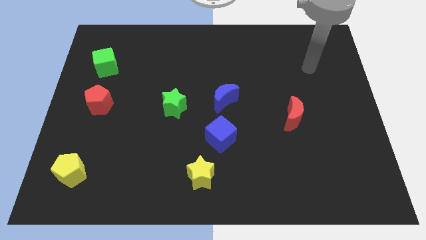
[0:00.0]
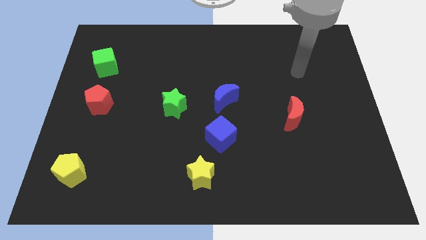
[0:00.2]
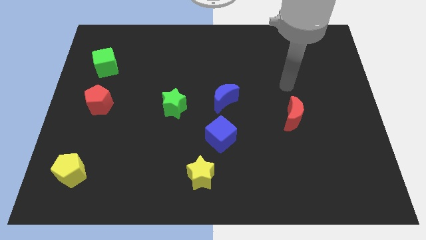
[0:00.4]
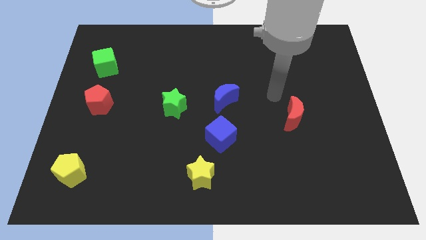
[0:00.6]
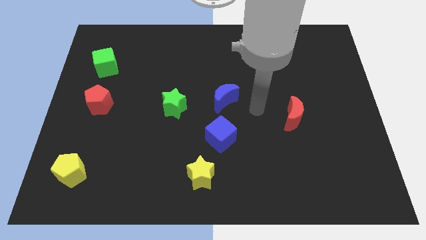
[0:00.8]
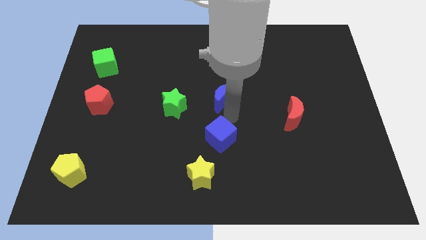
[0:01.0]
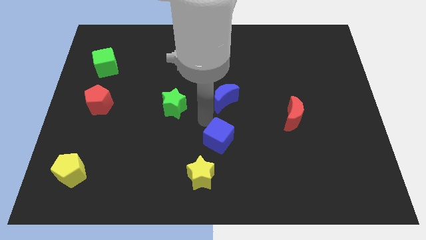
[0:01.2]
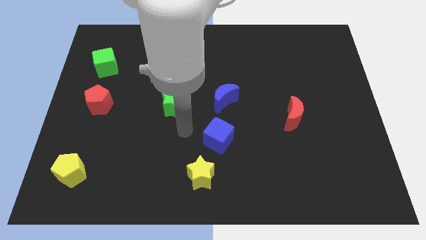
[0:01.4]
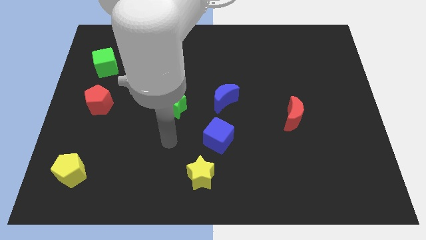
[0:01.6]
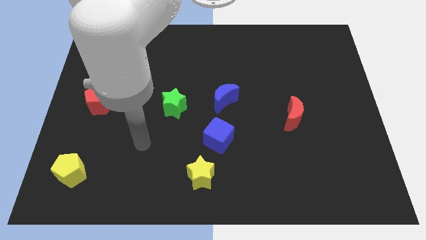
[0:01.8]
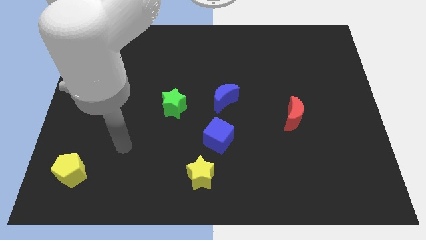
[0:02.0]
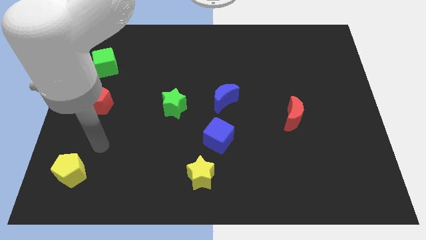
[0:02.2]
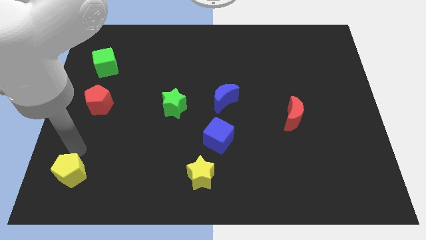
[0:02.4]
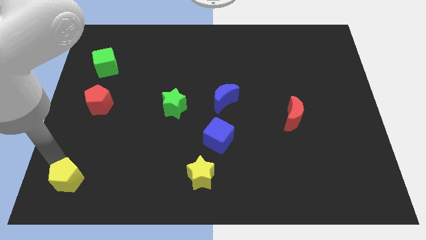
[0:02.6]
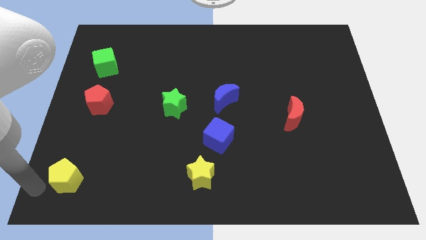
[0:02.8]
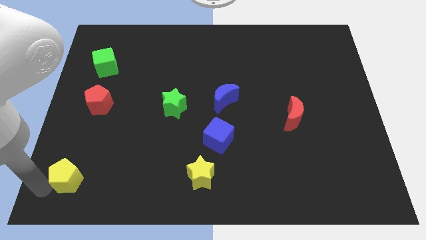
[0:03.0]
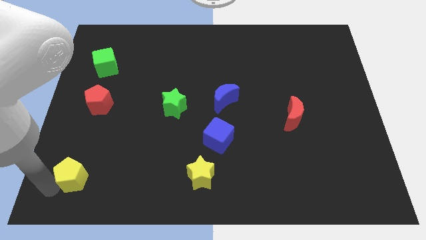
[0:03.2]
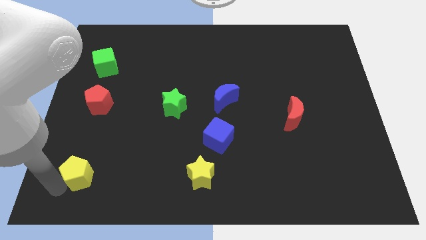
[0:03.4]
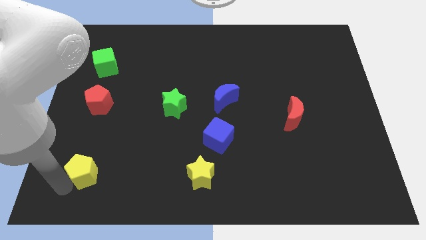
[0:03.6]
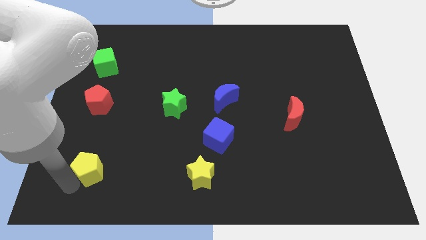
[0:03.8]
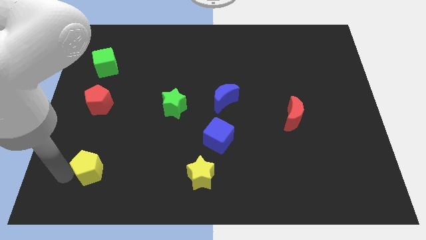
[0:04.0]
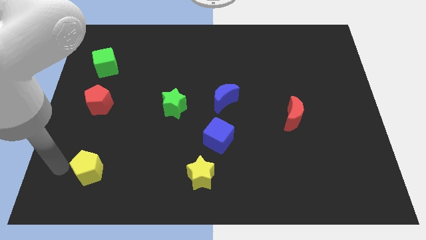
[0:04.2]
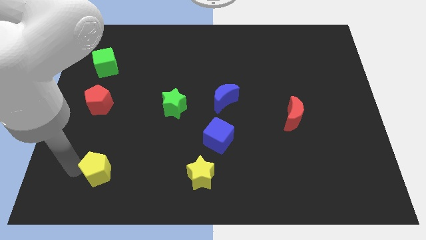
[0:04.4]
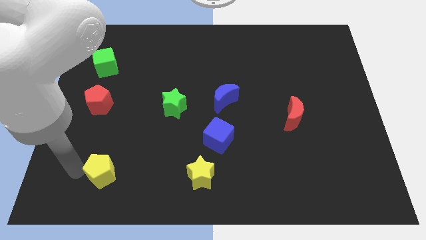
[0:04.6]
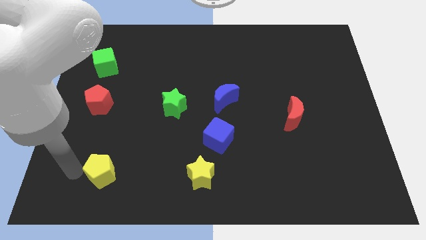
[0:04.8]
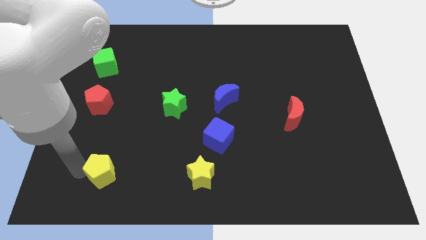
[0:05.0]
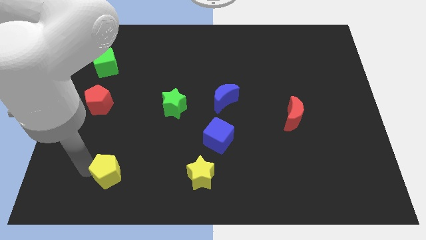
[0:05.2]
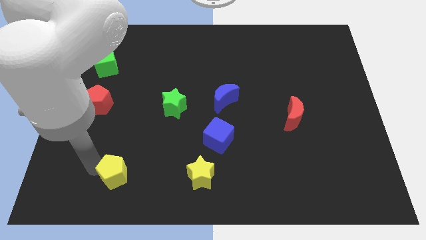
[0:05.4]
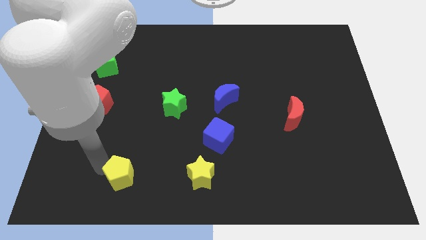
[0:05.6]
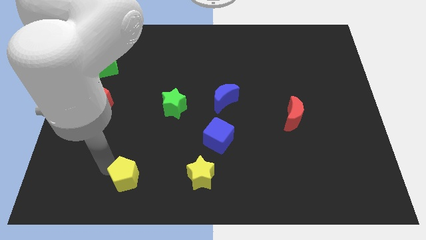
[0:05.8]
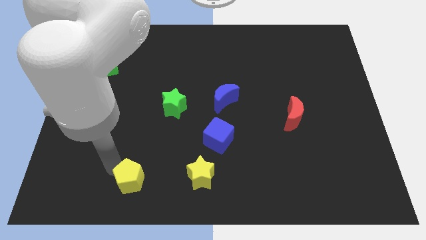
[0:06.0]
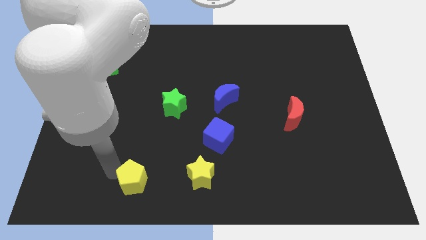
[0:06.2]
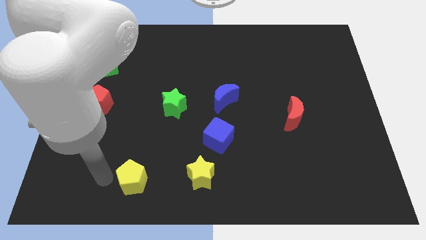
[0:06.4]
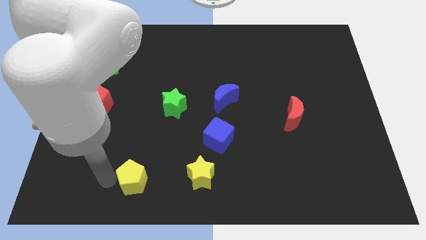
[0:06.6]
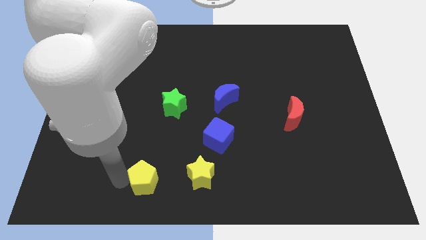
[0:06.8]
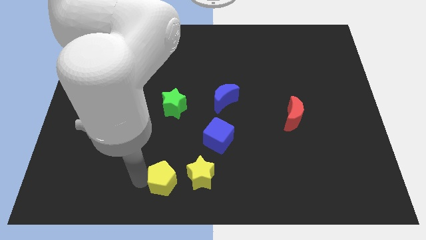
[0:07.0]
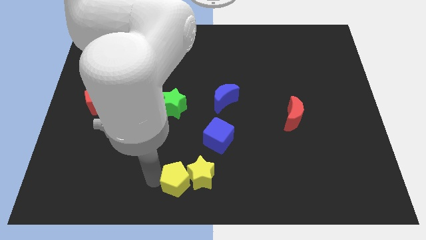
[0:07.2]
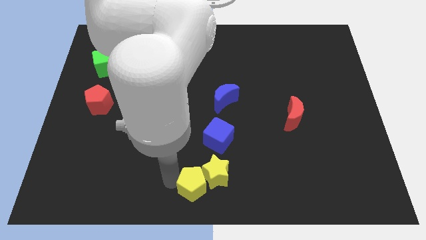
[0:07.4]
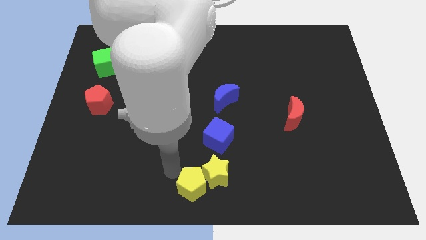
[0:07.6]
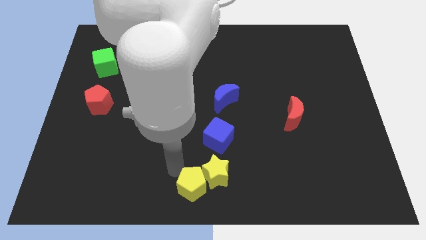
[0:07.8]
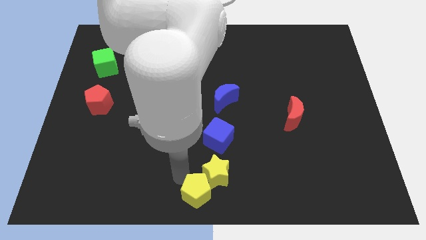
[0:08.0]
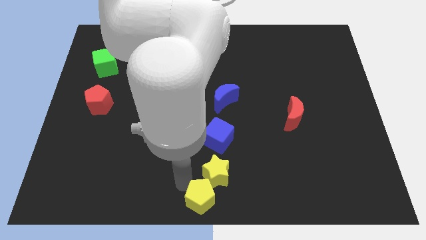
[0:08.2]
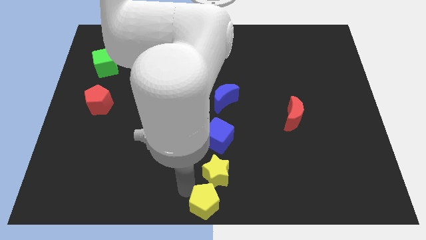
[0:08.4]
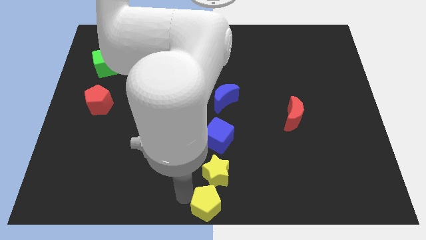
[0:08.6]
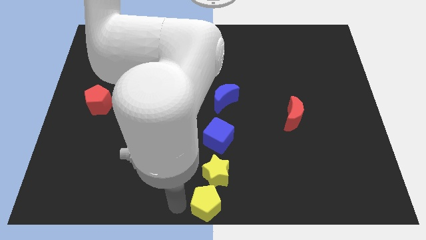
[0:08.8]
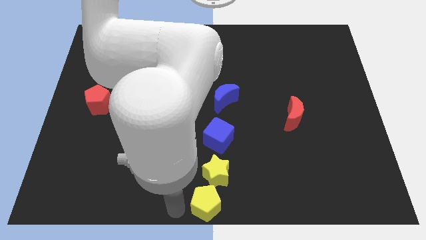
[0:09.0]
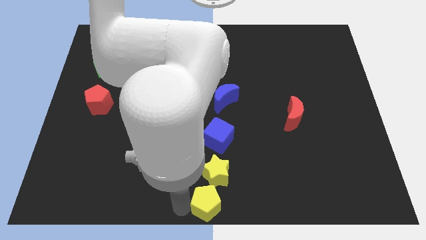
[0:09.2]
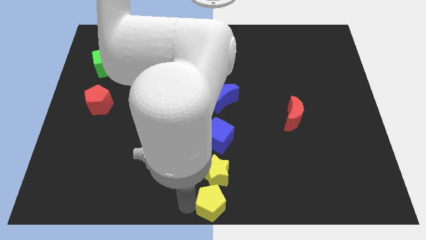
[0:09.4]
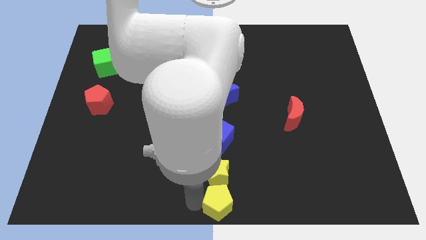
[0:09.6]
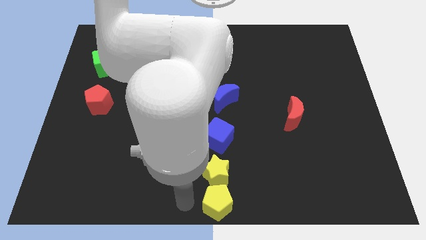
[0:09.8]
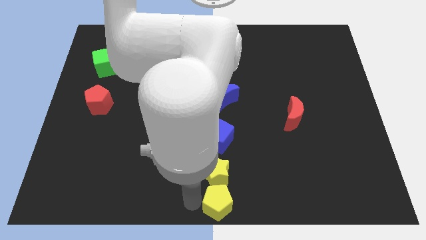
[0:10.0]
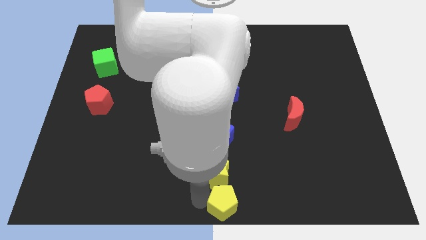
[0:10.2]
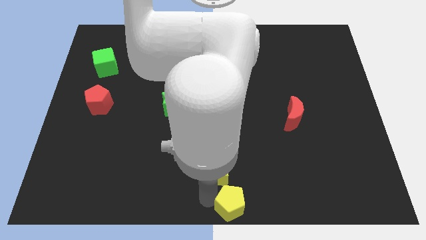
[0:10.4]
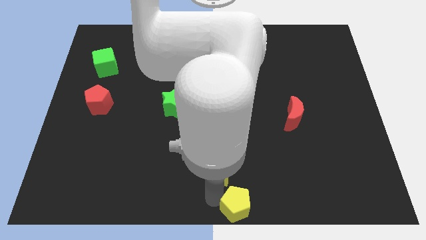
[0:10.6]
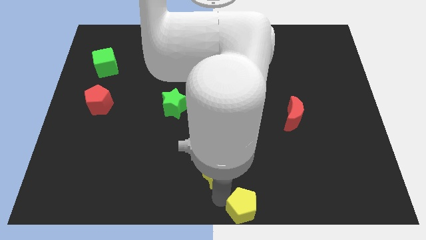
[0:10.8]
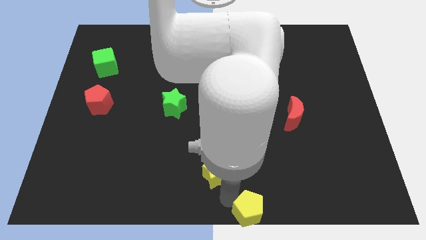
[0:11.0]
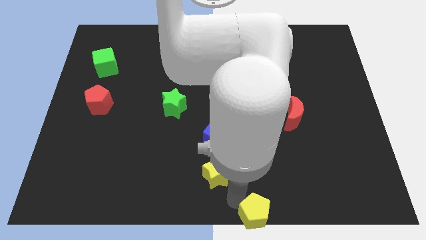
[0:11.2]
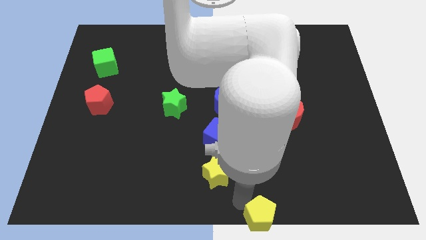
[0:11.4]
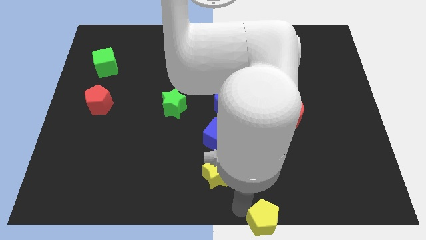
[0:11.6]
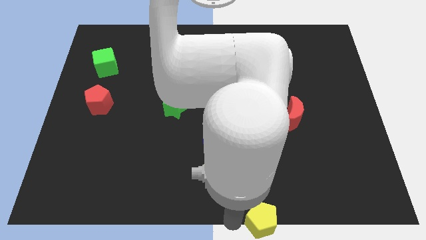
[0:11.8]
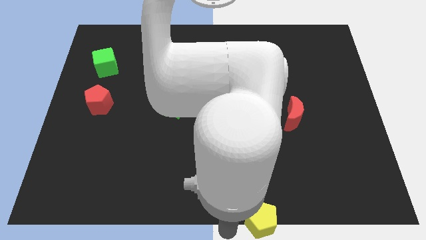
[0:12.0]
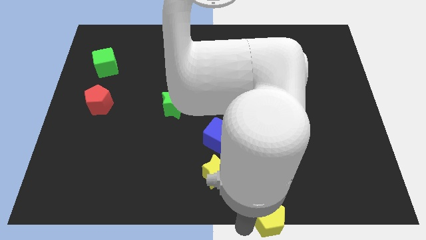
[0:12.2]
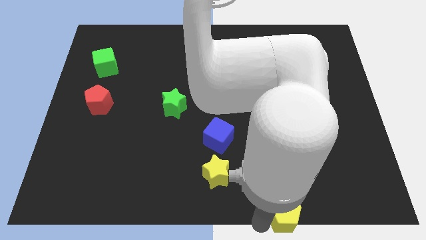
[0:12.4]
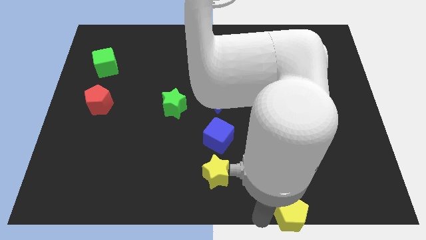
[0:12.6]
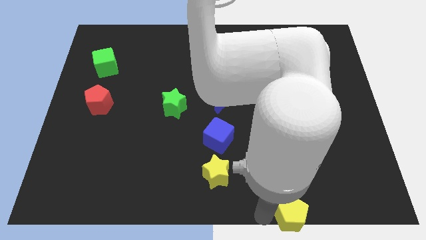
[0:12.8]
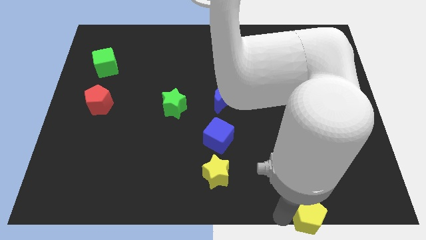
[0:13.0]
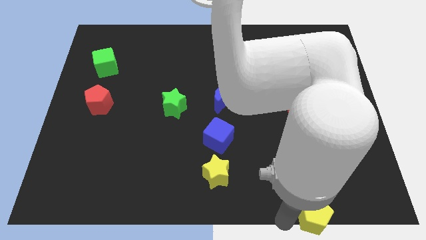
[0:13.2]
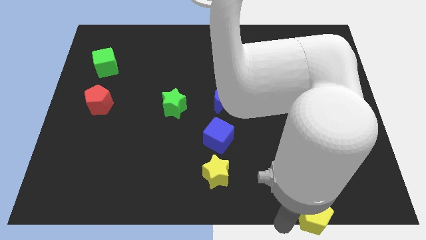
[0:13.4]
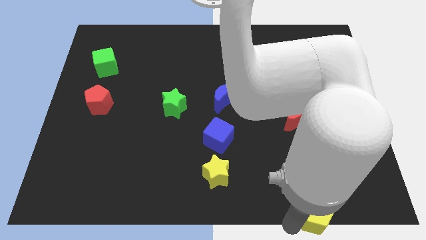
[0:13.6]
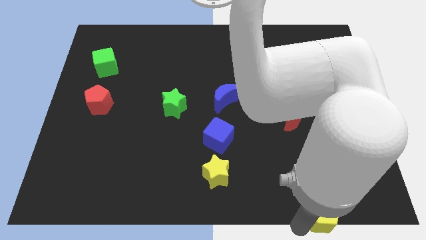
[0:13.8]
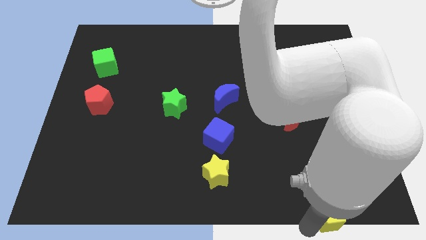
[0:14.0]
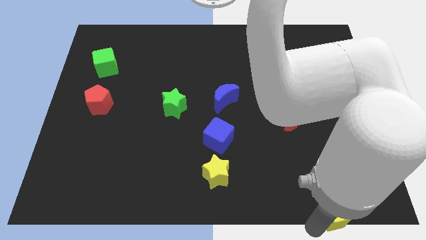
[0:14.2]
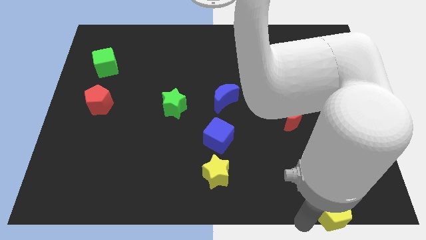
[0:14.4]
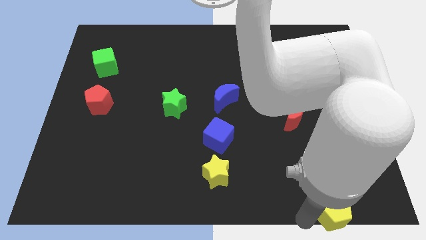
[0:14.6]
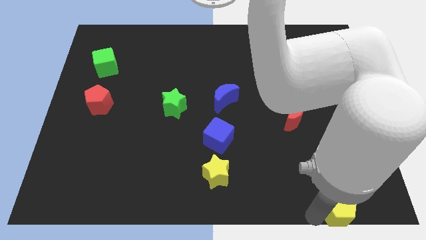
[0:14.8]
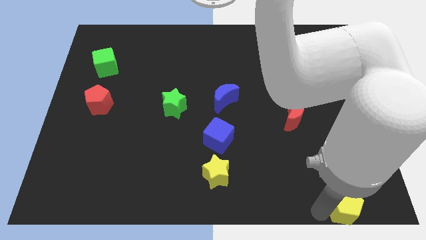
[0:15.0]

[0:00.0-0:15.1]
put the yellow pentagon to the bottom right corner
